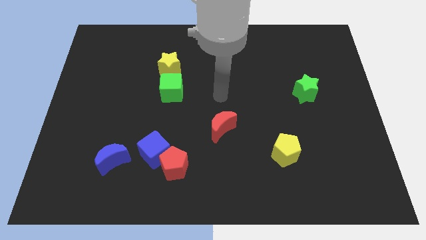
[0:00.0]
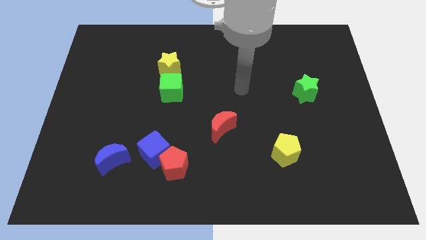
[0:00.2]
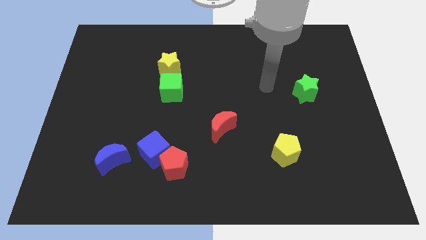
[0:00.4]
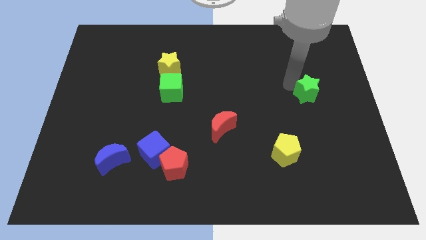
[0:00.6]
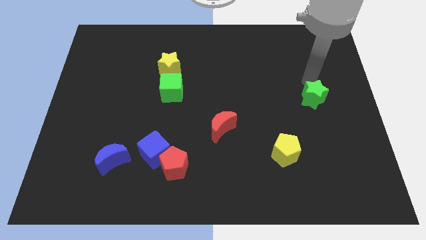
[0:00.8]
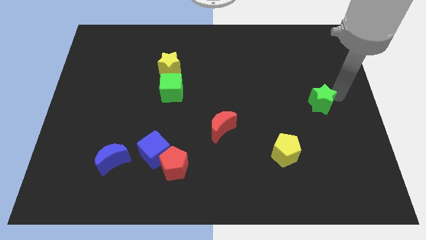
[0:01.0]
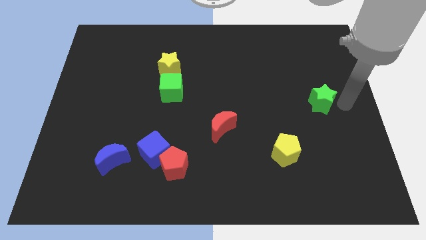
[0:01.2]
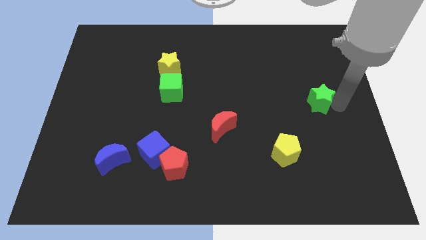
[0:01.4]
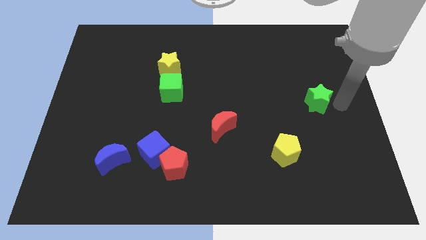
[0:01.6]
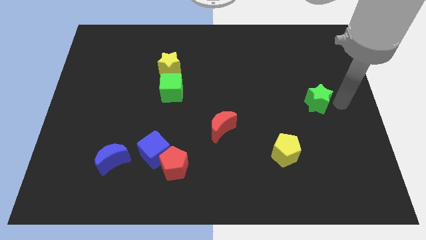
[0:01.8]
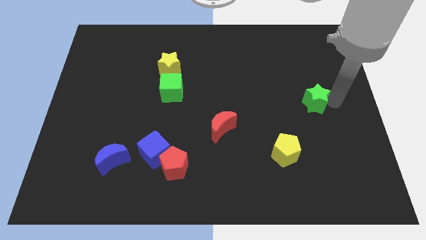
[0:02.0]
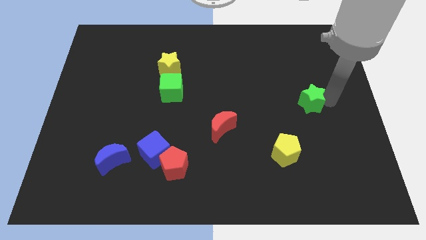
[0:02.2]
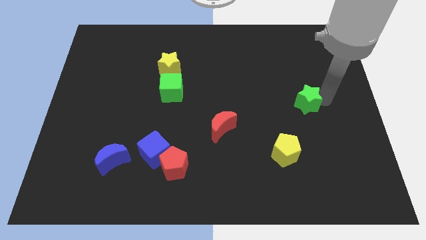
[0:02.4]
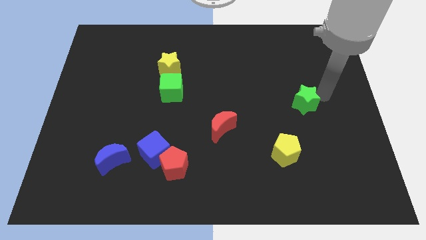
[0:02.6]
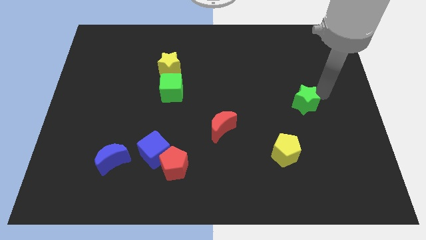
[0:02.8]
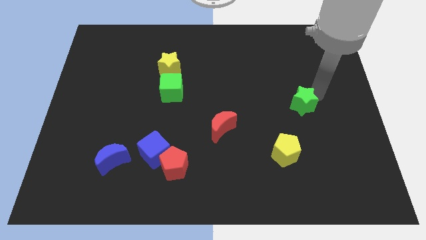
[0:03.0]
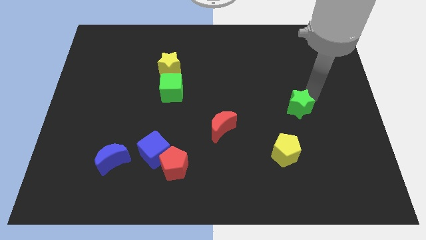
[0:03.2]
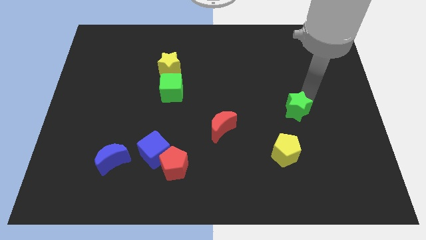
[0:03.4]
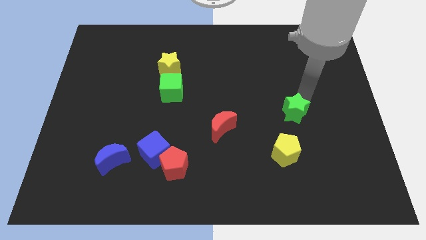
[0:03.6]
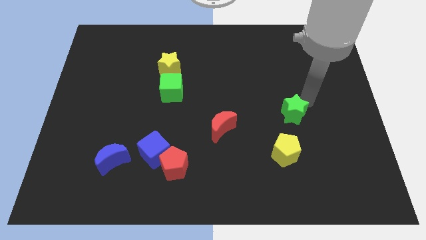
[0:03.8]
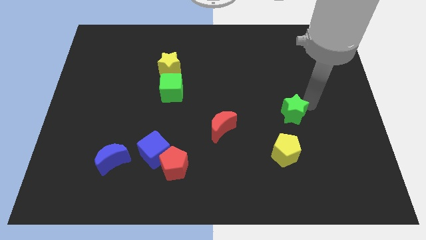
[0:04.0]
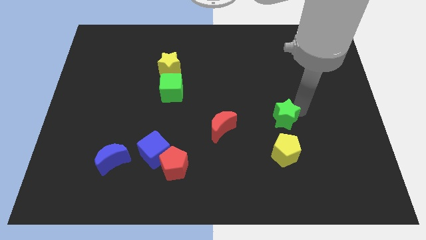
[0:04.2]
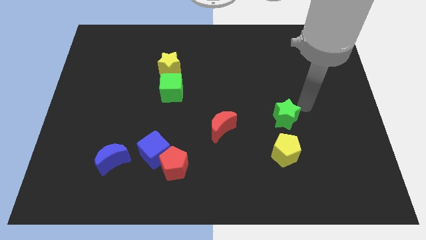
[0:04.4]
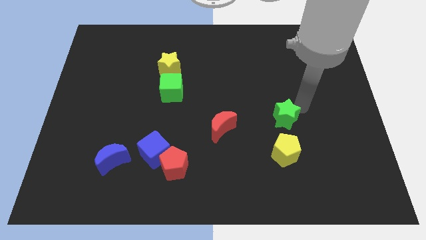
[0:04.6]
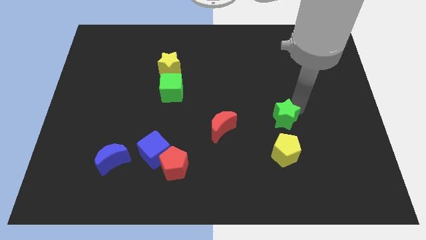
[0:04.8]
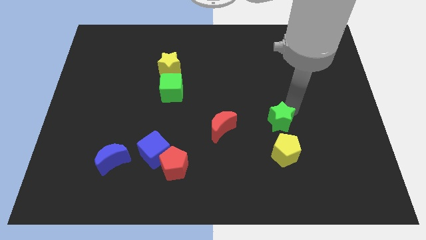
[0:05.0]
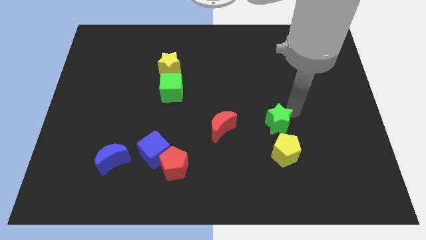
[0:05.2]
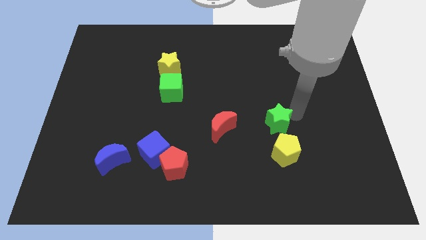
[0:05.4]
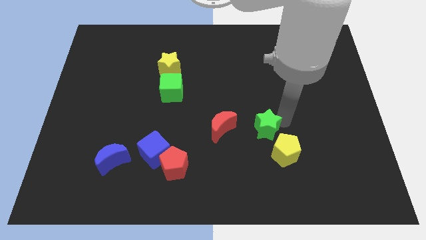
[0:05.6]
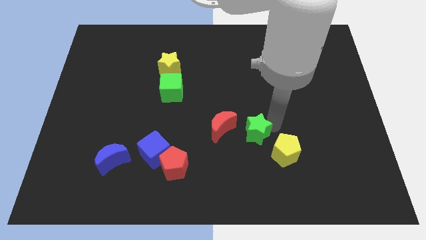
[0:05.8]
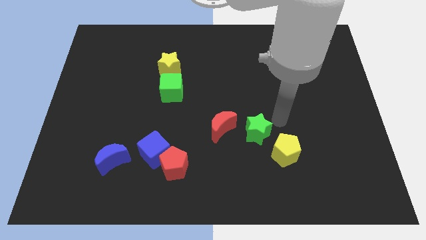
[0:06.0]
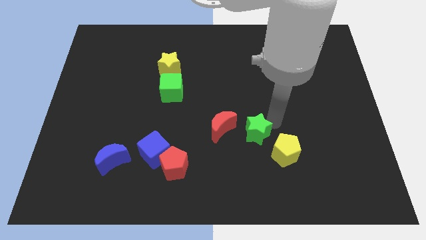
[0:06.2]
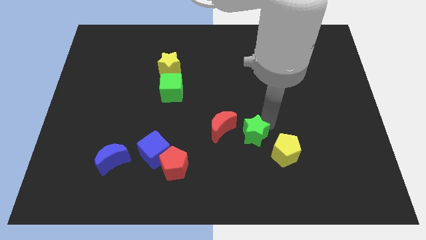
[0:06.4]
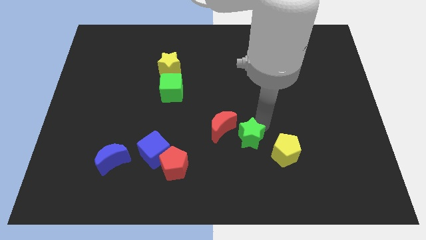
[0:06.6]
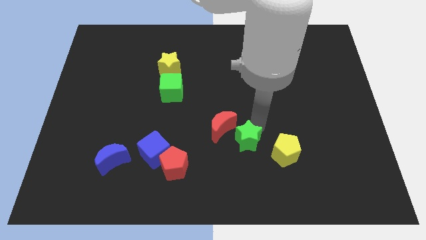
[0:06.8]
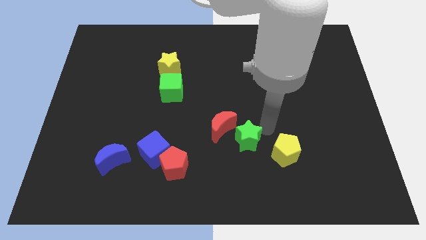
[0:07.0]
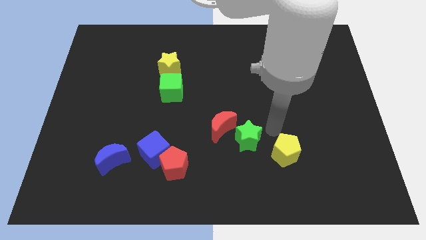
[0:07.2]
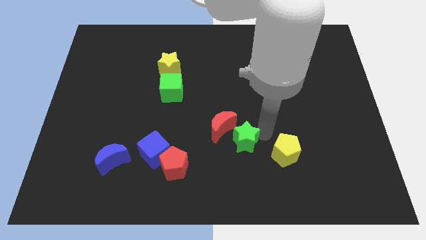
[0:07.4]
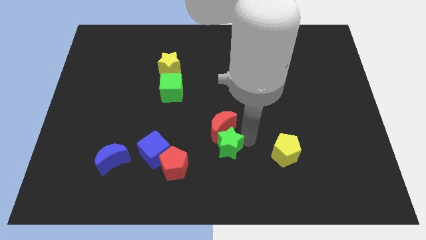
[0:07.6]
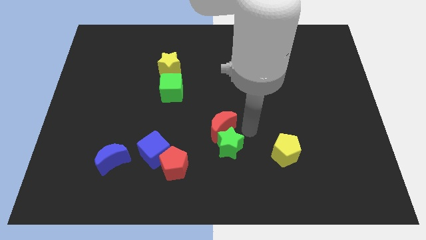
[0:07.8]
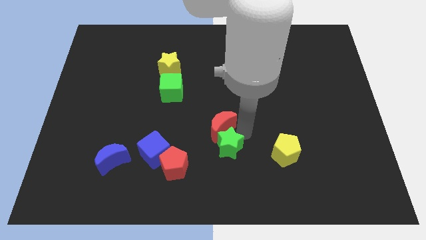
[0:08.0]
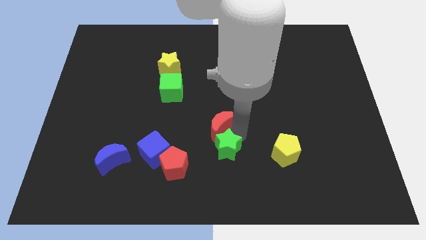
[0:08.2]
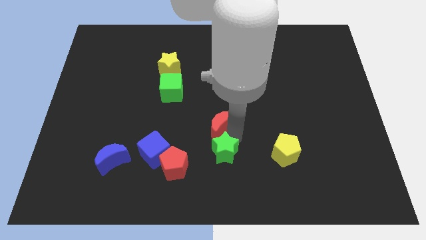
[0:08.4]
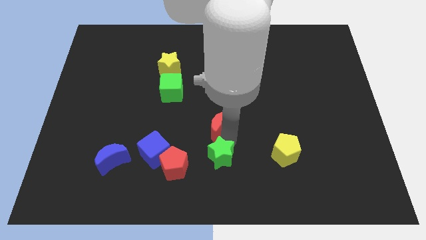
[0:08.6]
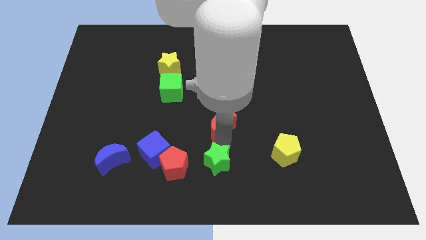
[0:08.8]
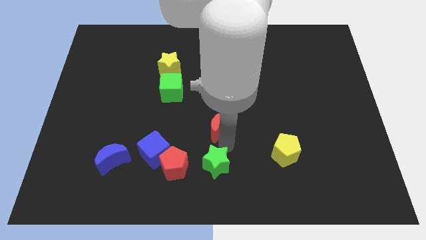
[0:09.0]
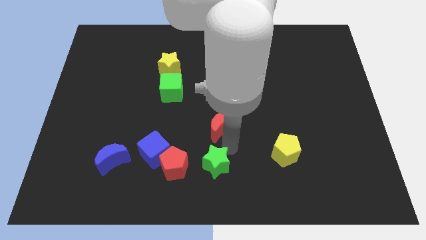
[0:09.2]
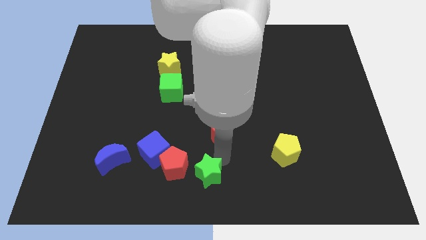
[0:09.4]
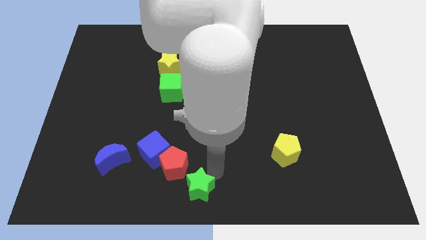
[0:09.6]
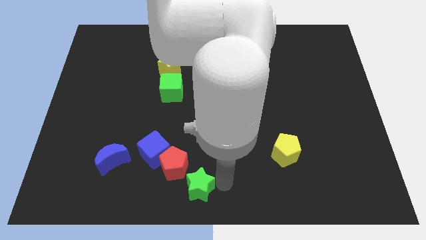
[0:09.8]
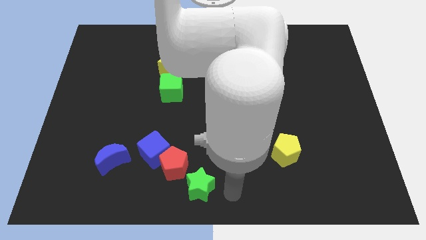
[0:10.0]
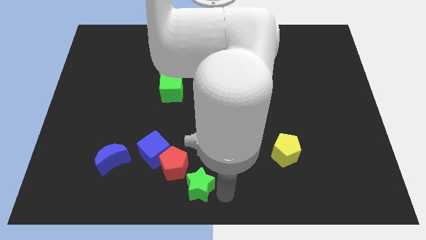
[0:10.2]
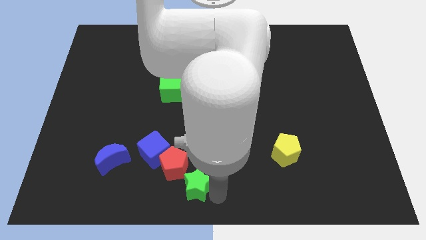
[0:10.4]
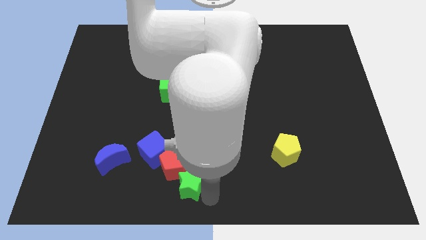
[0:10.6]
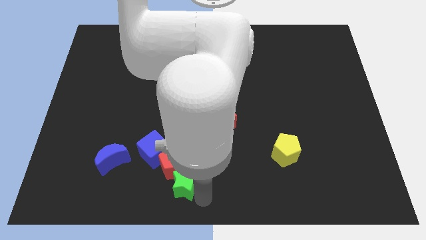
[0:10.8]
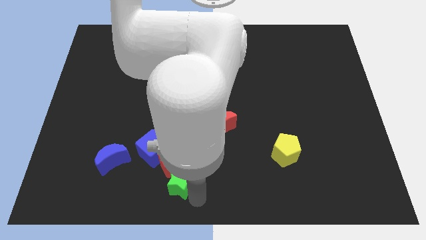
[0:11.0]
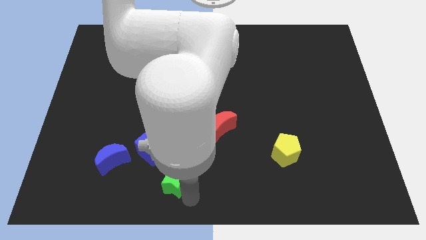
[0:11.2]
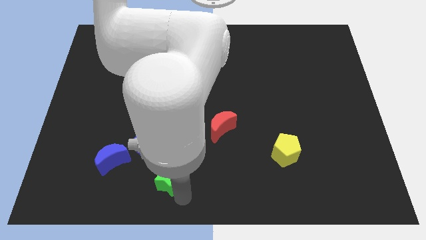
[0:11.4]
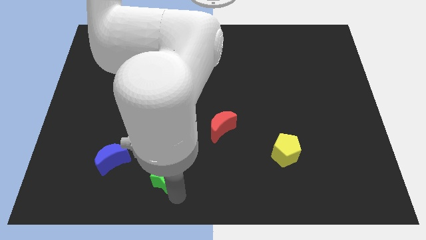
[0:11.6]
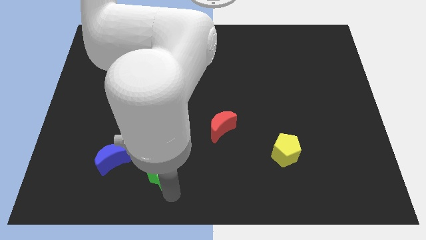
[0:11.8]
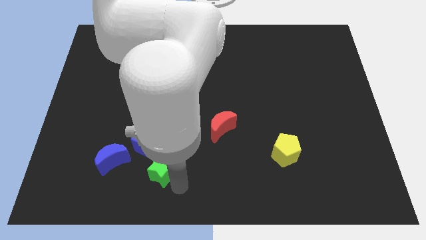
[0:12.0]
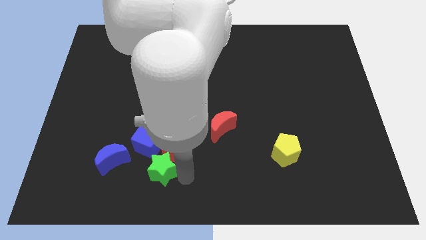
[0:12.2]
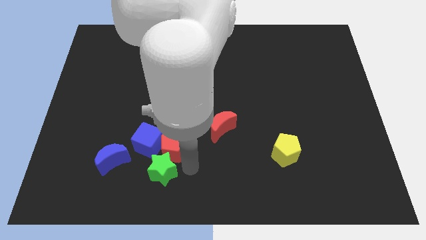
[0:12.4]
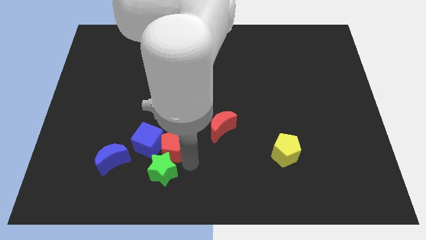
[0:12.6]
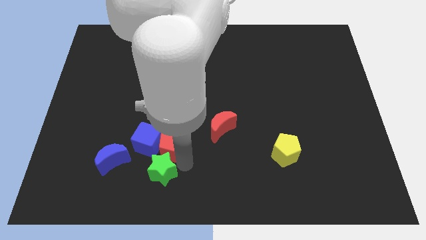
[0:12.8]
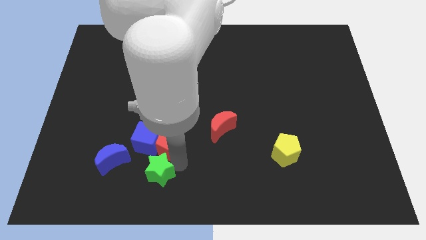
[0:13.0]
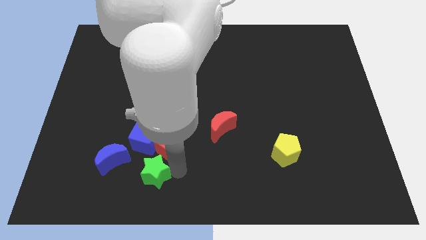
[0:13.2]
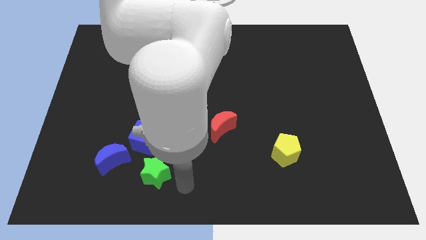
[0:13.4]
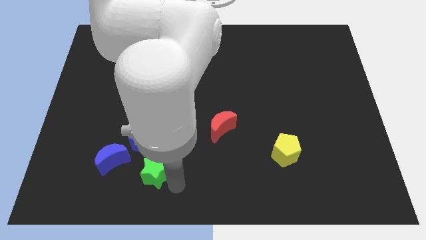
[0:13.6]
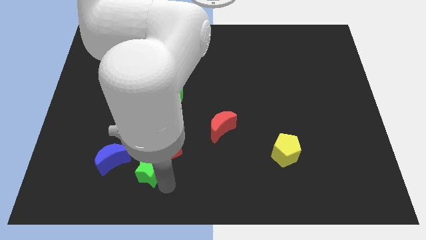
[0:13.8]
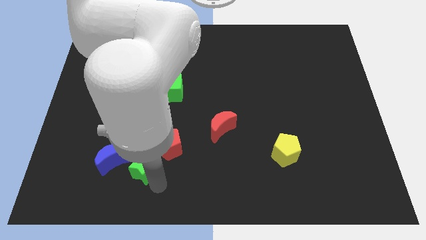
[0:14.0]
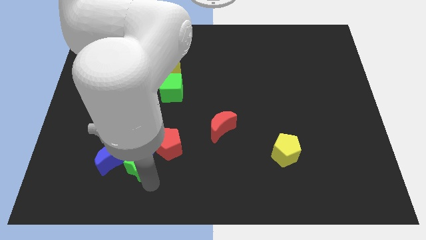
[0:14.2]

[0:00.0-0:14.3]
slide the green star to the bottom left of the blue cube

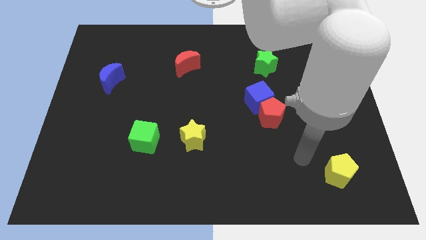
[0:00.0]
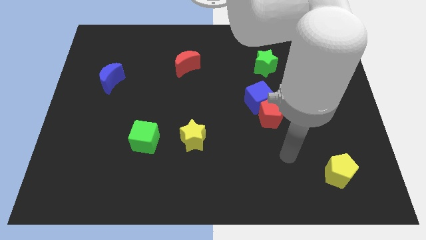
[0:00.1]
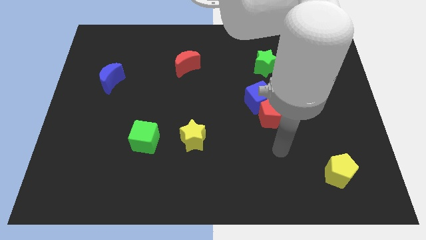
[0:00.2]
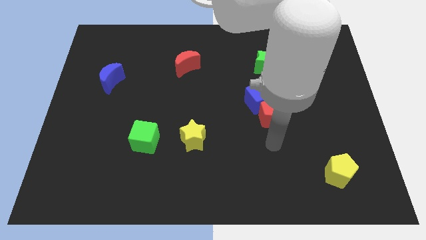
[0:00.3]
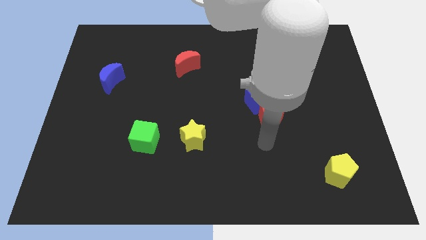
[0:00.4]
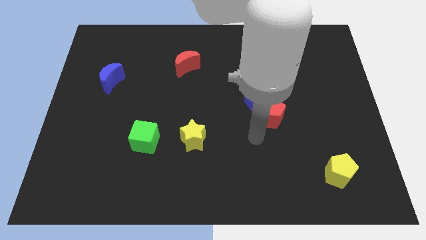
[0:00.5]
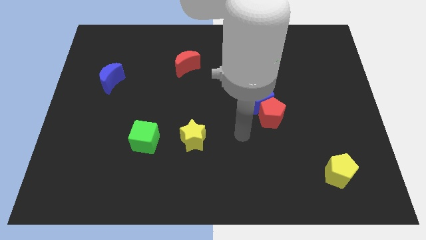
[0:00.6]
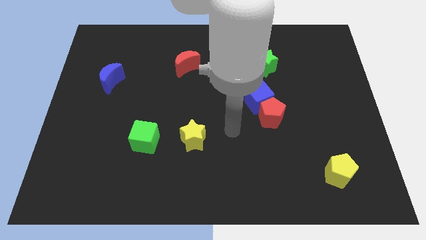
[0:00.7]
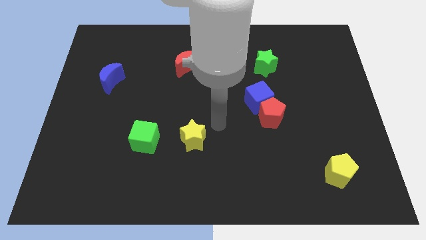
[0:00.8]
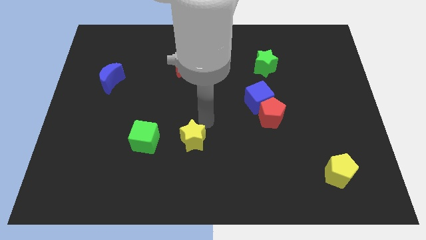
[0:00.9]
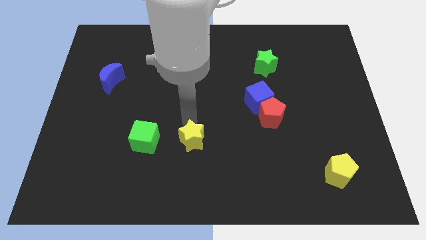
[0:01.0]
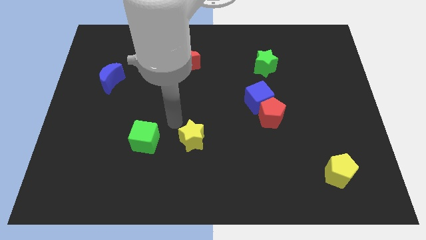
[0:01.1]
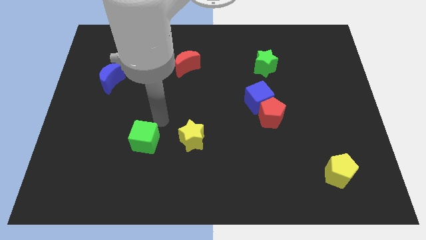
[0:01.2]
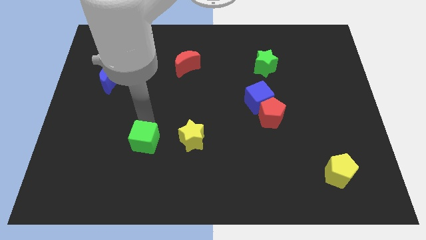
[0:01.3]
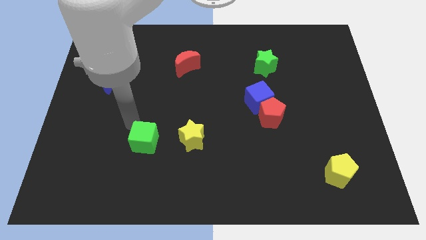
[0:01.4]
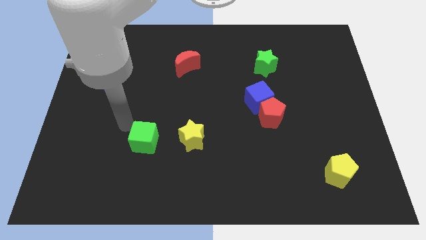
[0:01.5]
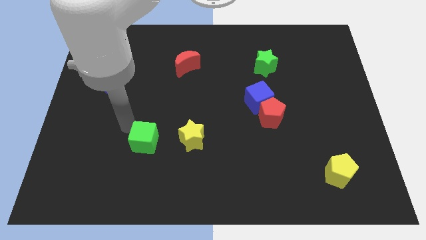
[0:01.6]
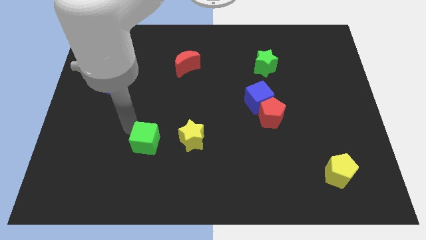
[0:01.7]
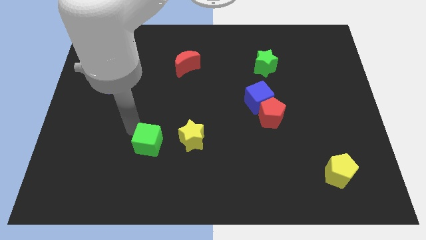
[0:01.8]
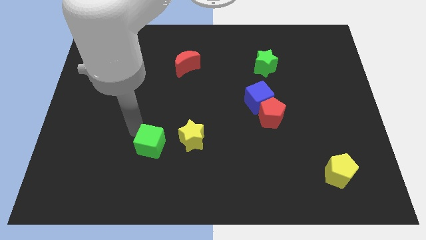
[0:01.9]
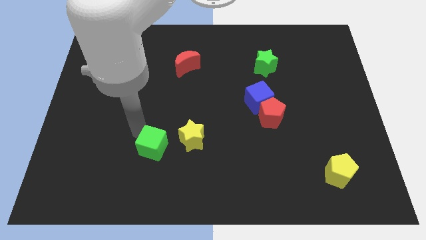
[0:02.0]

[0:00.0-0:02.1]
push the green cube to the bottom left of the yellow star
